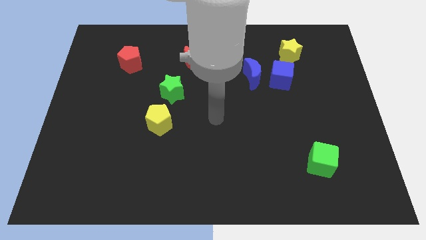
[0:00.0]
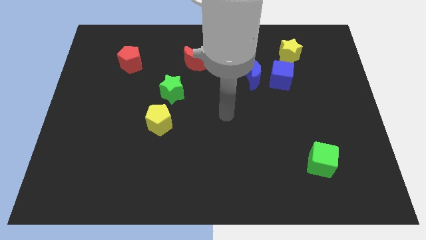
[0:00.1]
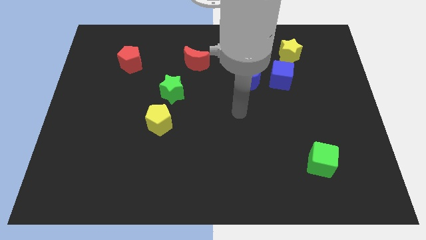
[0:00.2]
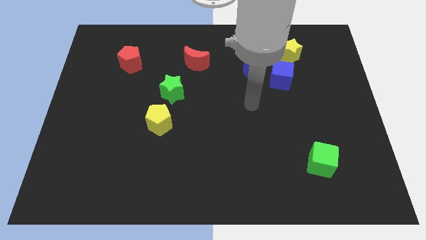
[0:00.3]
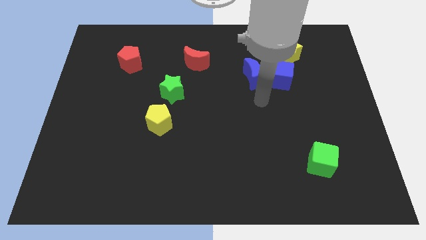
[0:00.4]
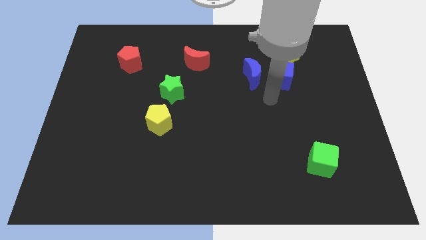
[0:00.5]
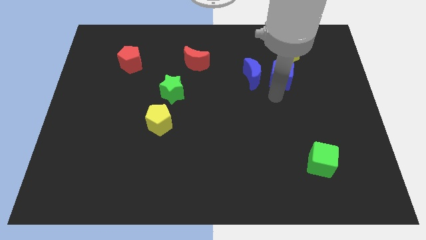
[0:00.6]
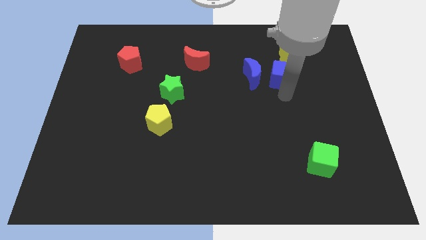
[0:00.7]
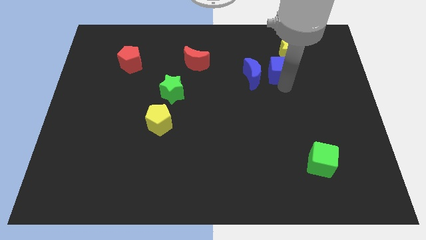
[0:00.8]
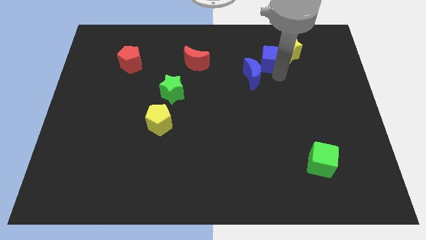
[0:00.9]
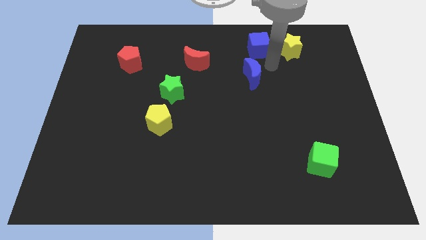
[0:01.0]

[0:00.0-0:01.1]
separate the blue moon from the blue cube

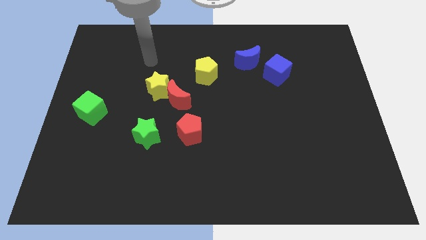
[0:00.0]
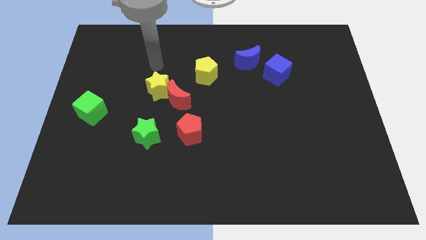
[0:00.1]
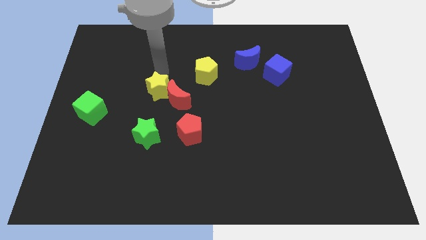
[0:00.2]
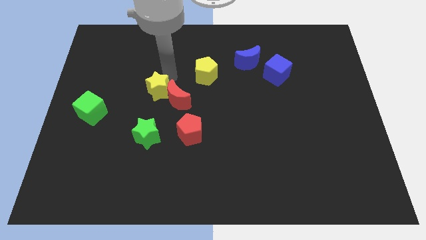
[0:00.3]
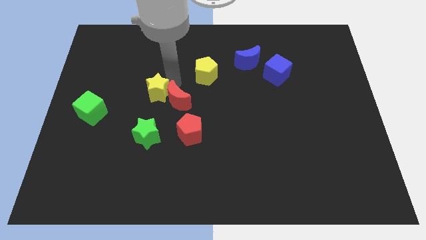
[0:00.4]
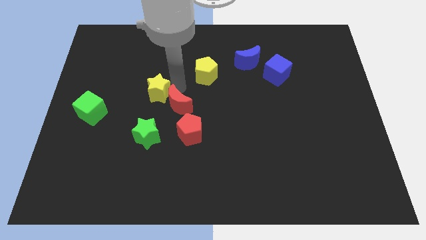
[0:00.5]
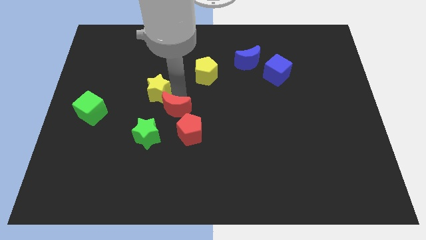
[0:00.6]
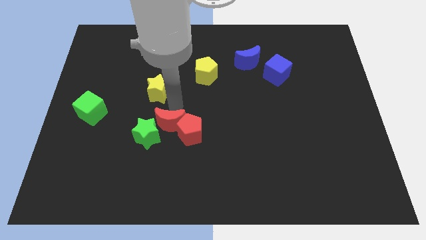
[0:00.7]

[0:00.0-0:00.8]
pull the yellow star apart from the red moon

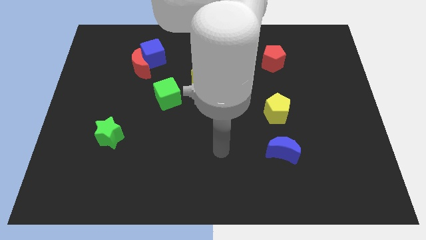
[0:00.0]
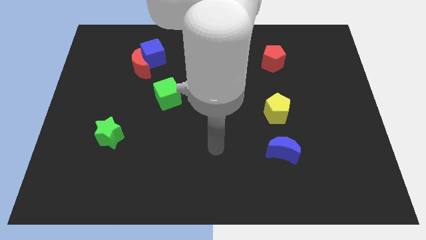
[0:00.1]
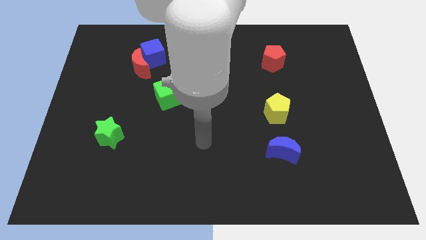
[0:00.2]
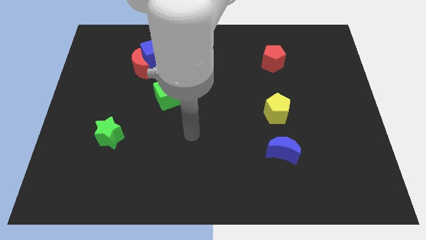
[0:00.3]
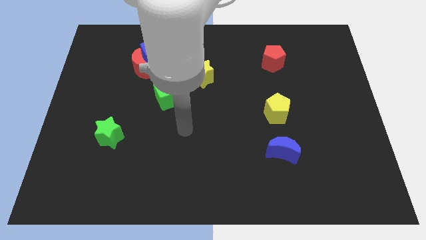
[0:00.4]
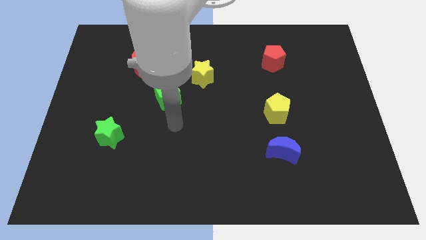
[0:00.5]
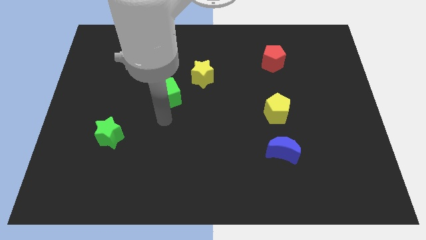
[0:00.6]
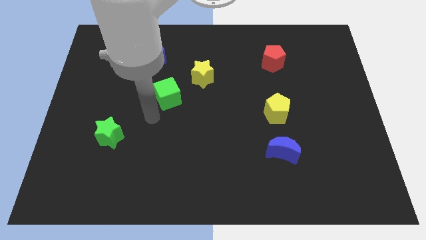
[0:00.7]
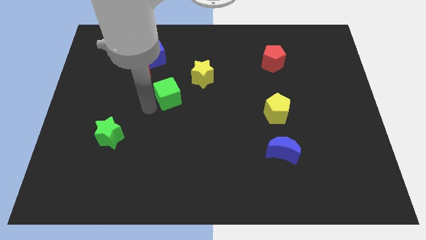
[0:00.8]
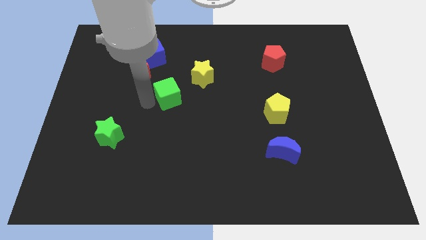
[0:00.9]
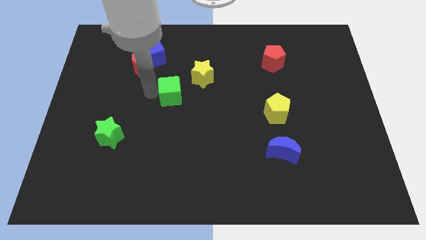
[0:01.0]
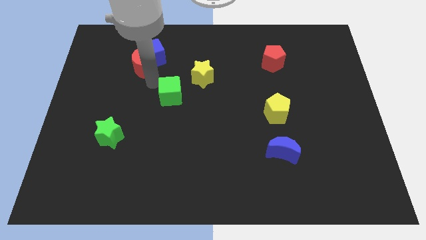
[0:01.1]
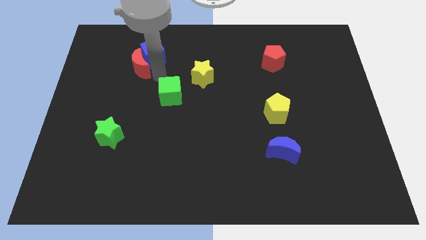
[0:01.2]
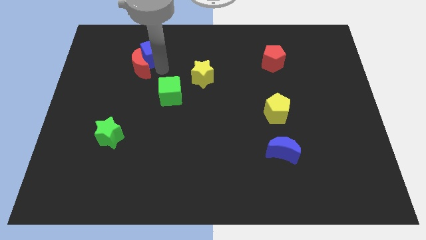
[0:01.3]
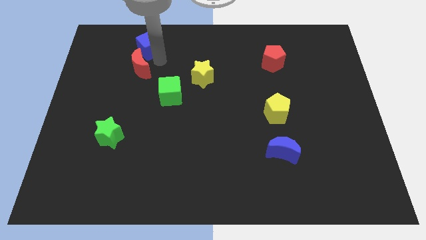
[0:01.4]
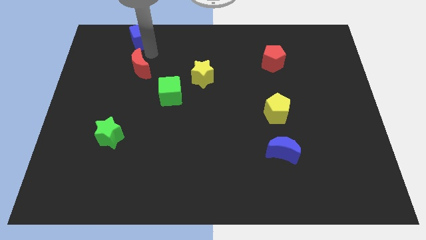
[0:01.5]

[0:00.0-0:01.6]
move the red moon away from the blue cube

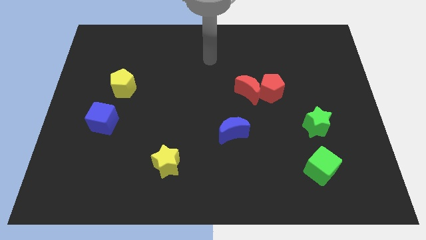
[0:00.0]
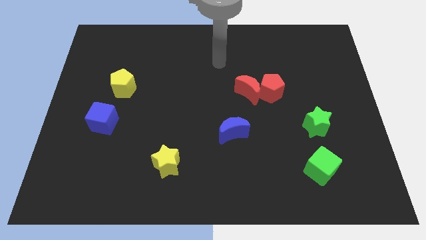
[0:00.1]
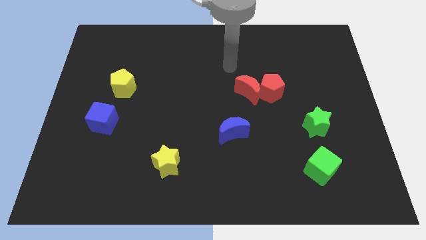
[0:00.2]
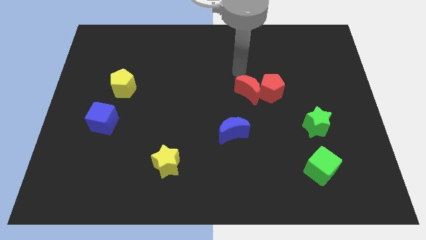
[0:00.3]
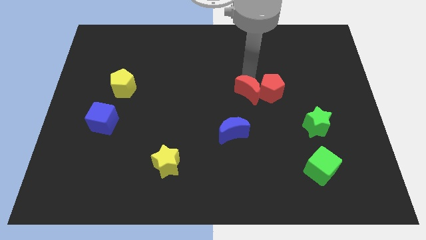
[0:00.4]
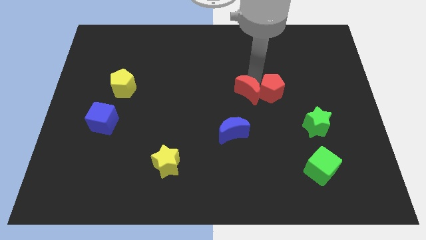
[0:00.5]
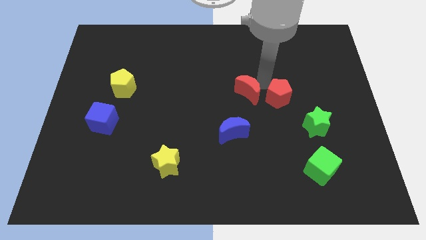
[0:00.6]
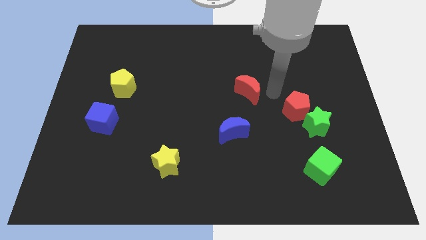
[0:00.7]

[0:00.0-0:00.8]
move the red moon away from the red pentagon

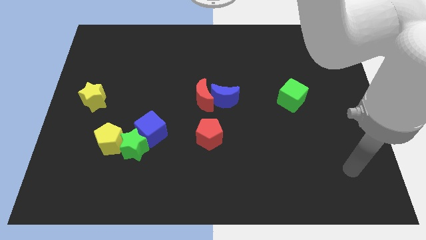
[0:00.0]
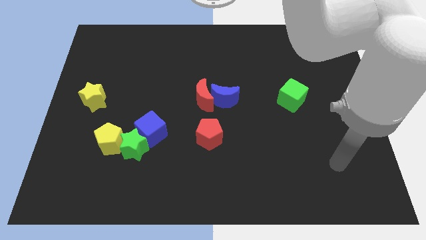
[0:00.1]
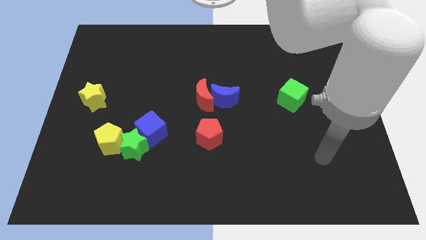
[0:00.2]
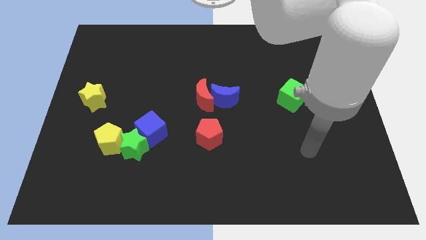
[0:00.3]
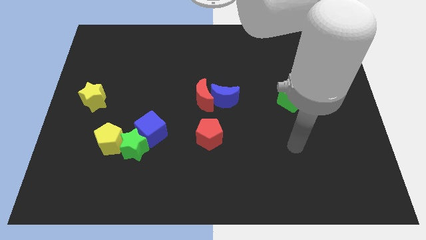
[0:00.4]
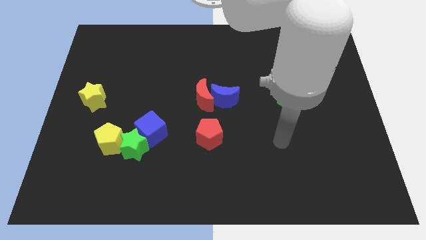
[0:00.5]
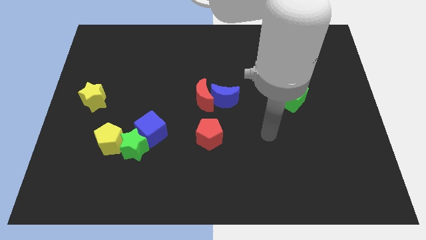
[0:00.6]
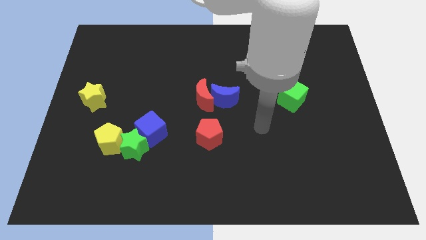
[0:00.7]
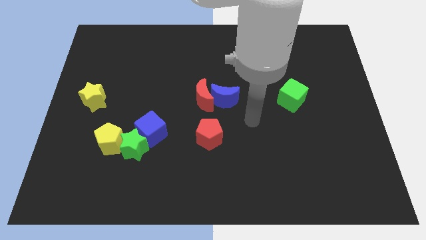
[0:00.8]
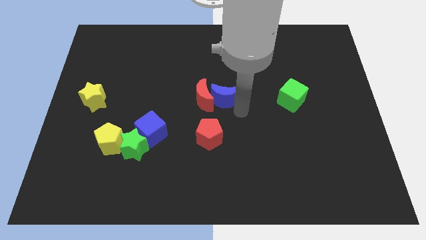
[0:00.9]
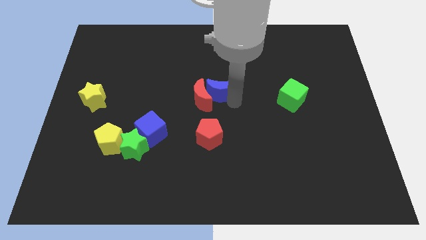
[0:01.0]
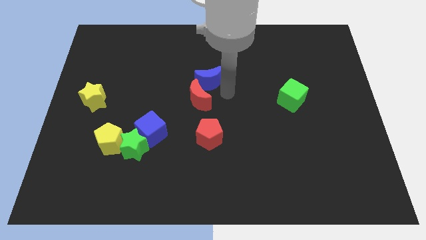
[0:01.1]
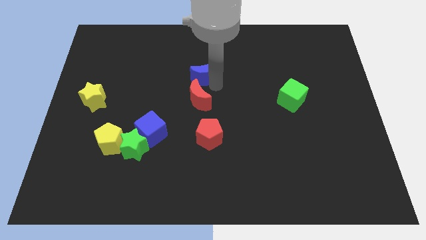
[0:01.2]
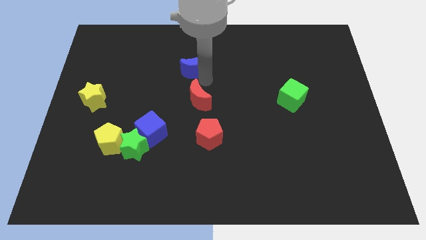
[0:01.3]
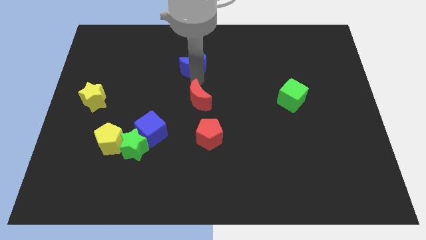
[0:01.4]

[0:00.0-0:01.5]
separate the red moon from the blue moon

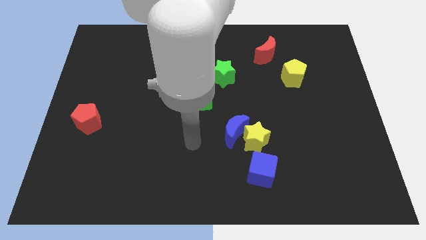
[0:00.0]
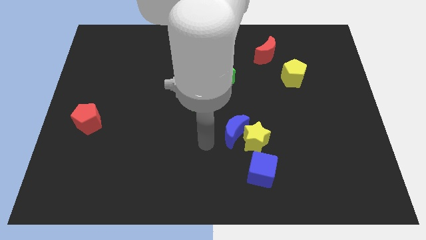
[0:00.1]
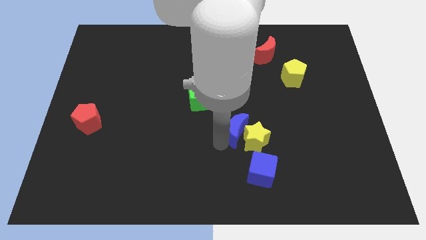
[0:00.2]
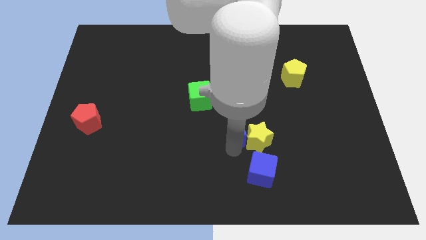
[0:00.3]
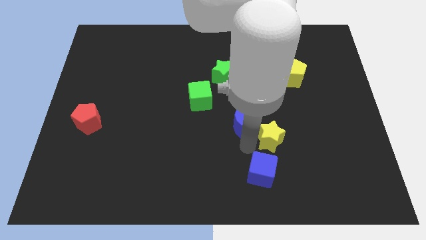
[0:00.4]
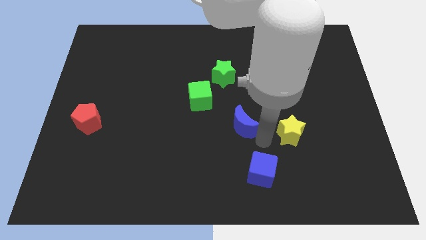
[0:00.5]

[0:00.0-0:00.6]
separate the blue moon from the yellow star

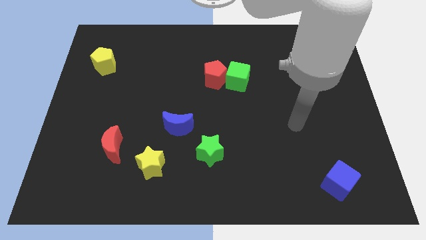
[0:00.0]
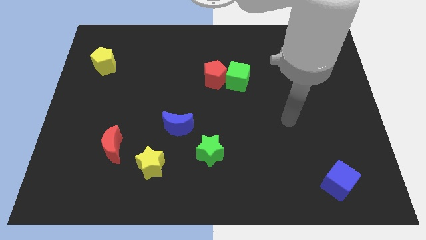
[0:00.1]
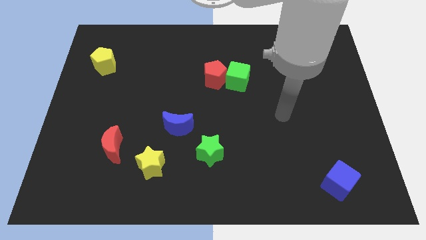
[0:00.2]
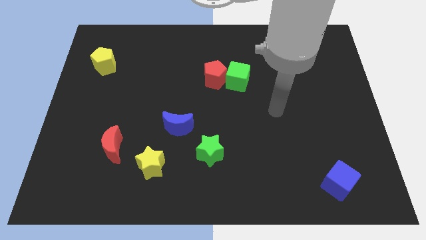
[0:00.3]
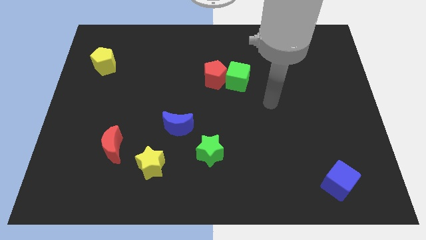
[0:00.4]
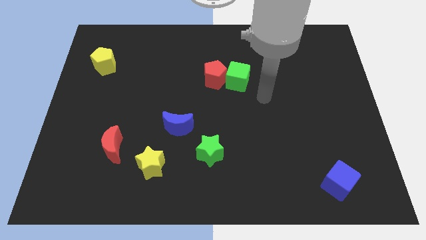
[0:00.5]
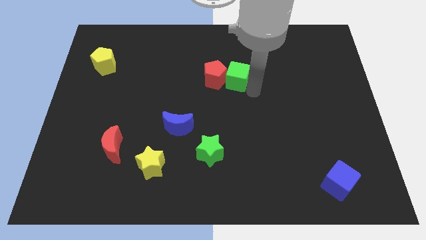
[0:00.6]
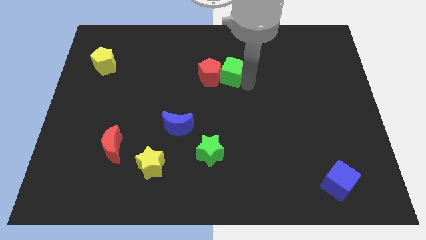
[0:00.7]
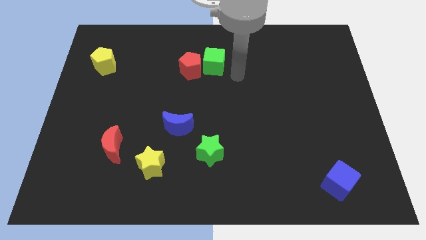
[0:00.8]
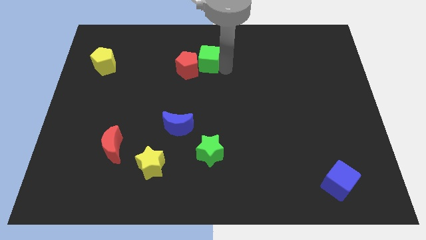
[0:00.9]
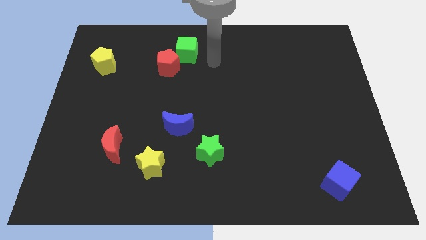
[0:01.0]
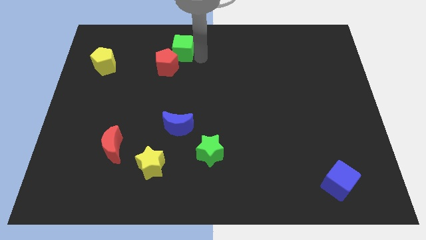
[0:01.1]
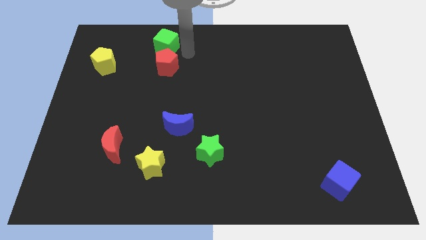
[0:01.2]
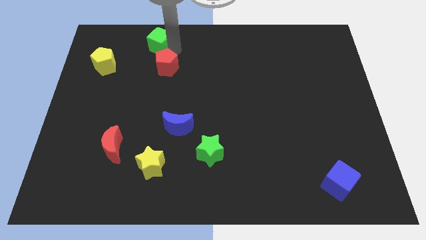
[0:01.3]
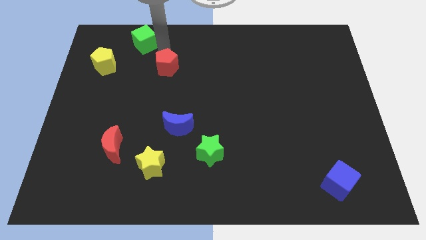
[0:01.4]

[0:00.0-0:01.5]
pull the red pentagon apart from the green cube

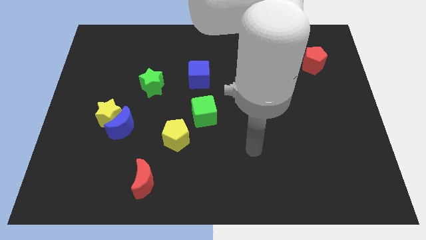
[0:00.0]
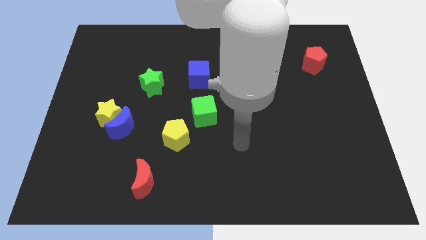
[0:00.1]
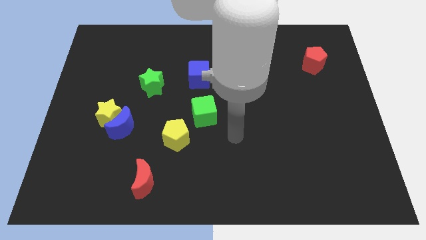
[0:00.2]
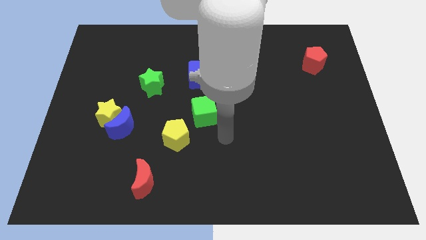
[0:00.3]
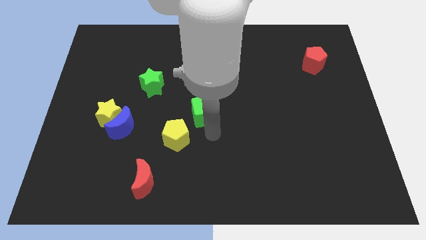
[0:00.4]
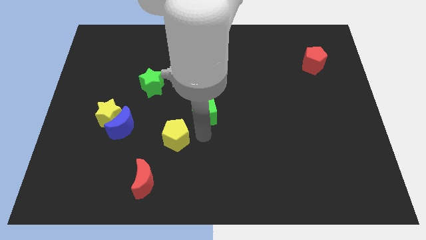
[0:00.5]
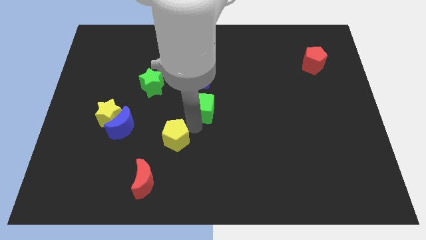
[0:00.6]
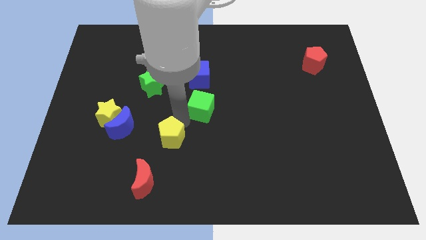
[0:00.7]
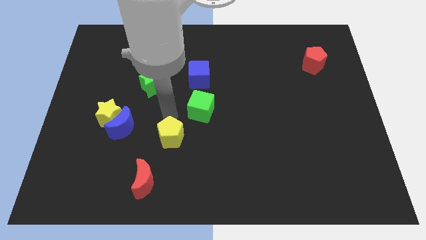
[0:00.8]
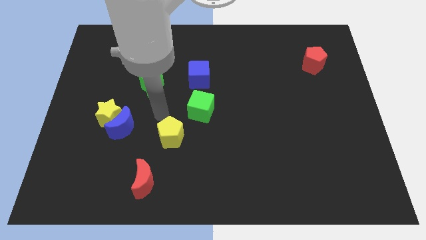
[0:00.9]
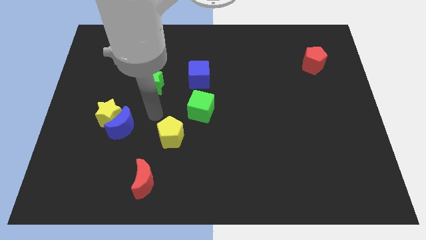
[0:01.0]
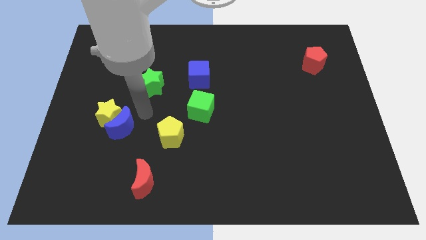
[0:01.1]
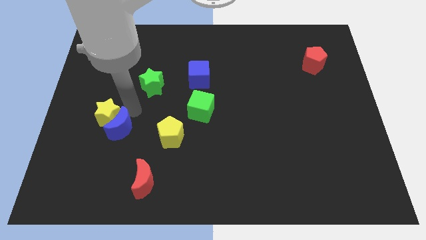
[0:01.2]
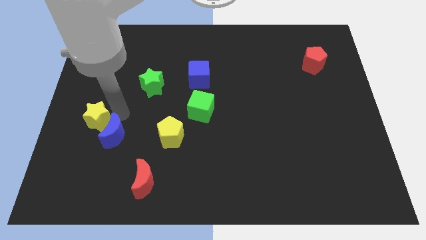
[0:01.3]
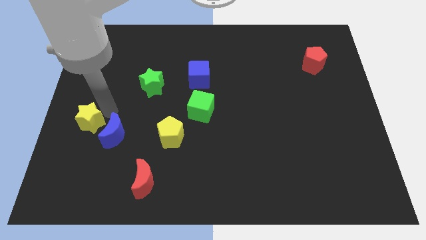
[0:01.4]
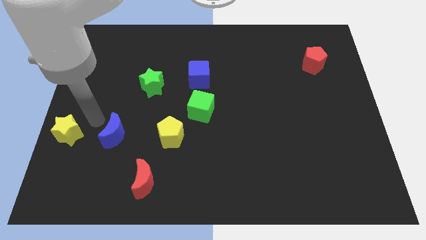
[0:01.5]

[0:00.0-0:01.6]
move the blue moon away from the yellow star
